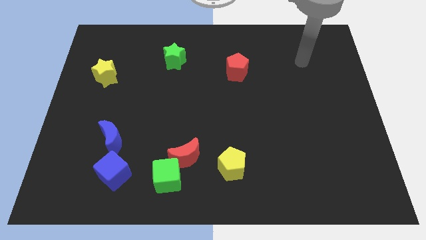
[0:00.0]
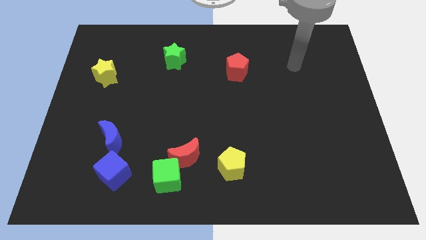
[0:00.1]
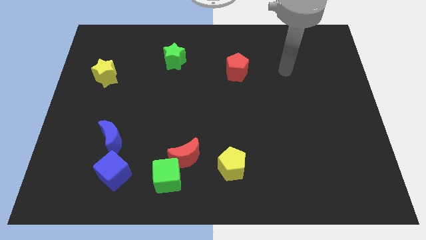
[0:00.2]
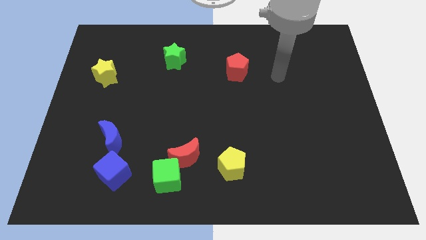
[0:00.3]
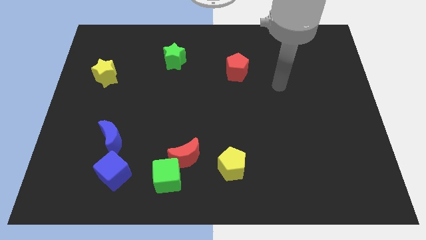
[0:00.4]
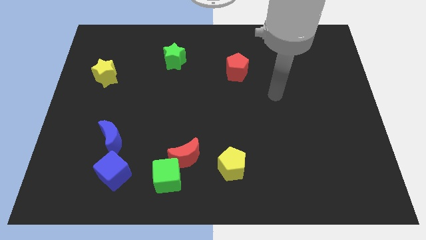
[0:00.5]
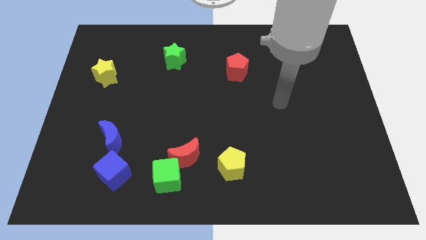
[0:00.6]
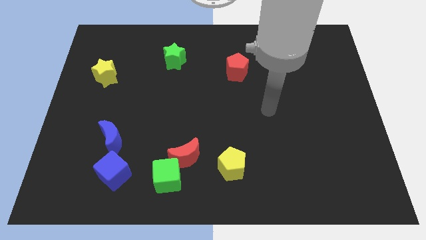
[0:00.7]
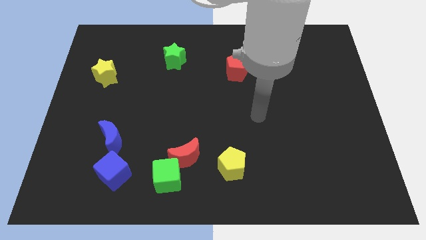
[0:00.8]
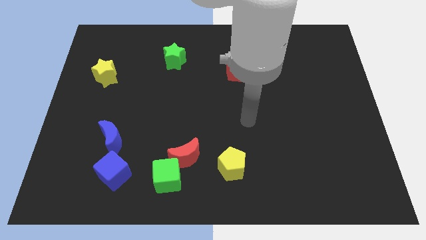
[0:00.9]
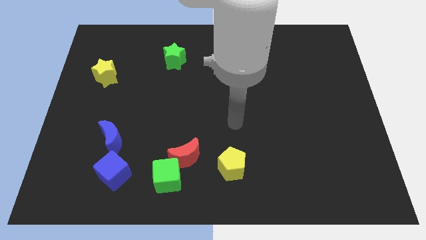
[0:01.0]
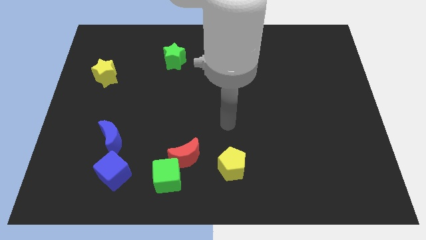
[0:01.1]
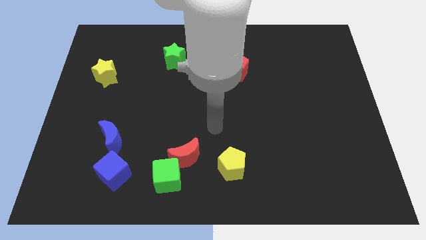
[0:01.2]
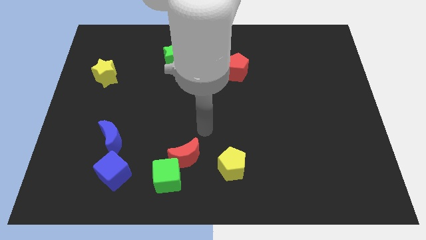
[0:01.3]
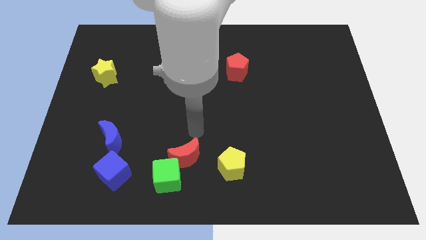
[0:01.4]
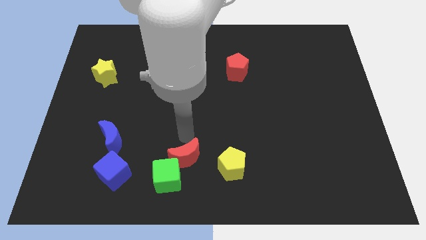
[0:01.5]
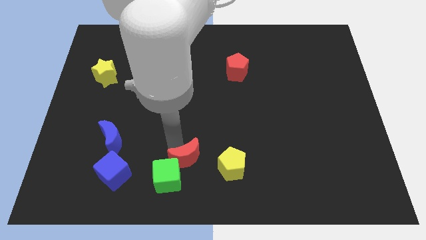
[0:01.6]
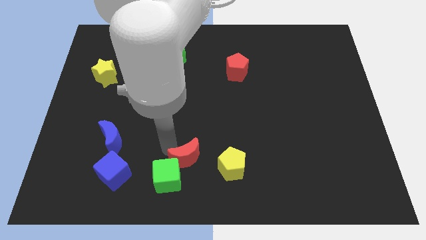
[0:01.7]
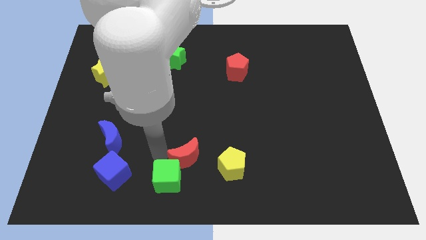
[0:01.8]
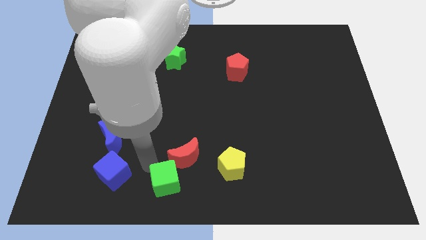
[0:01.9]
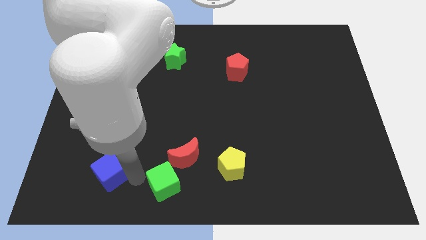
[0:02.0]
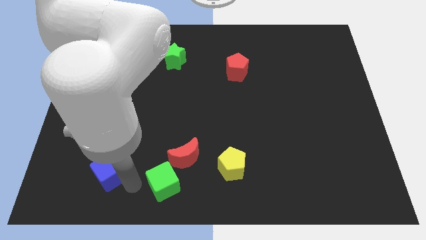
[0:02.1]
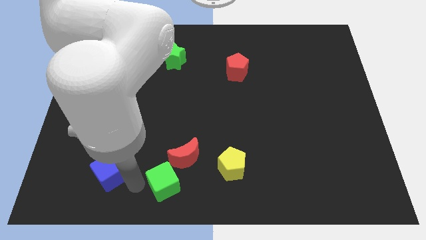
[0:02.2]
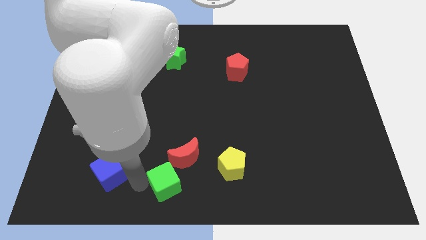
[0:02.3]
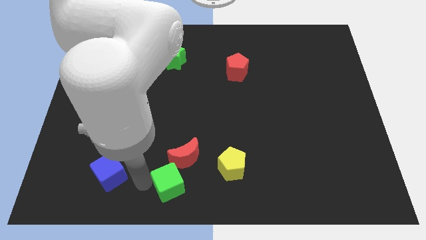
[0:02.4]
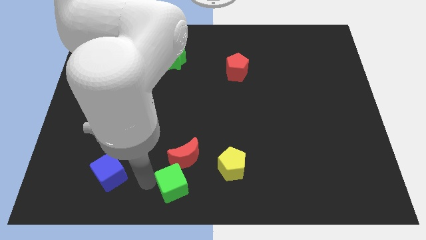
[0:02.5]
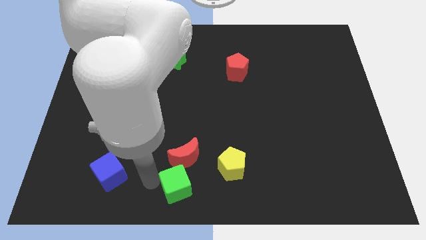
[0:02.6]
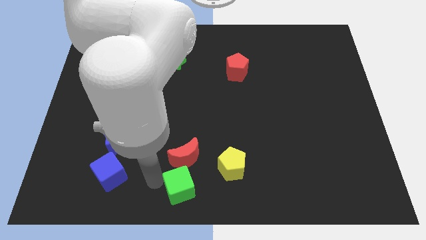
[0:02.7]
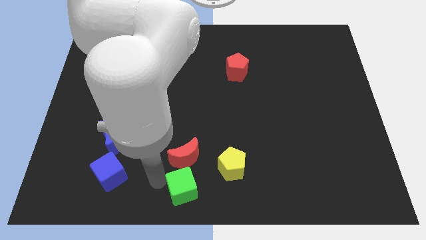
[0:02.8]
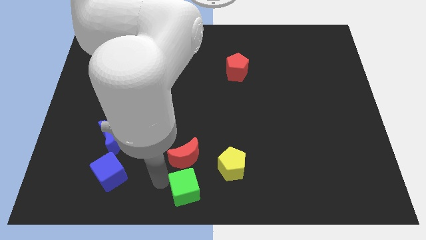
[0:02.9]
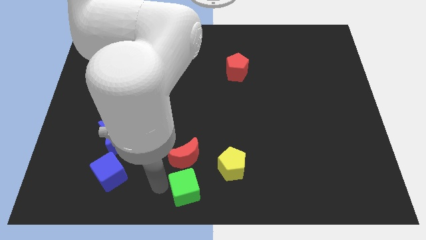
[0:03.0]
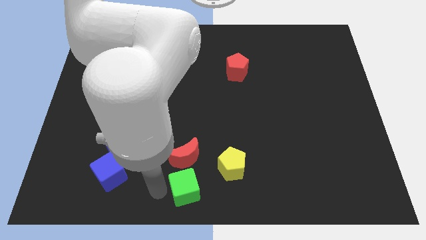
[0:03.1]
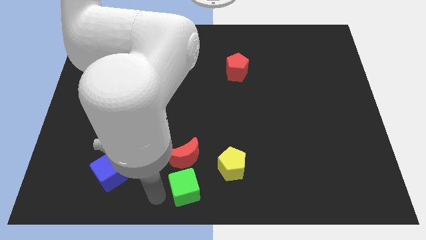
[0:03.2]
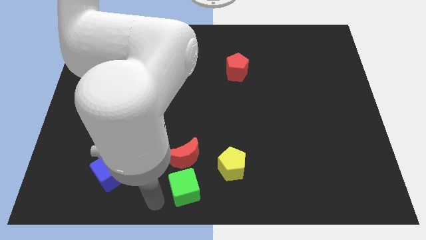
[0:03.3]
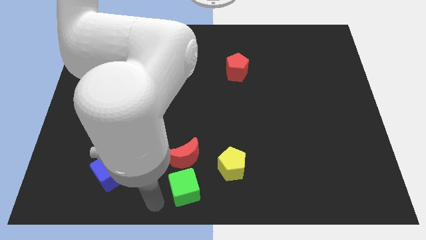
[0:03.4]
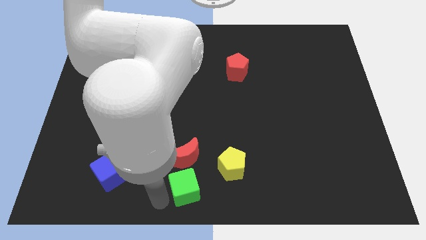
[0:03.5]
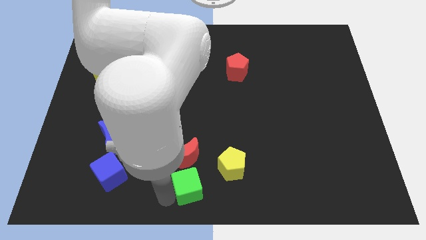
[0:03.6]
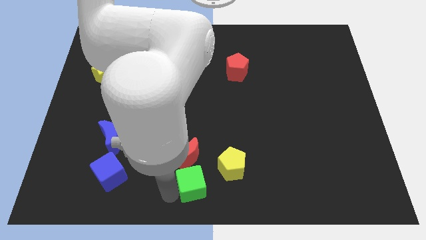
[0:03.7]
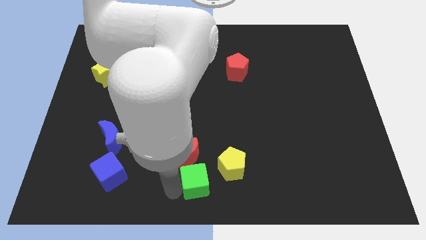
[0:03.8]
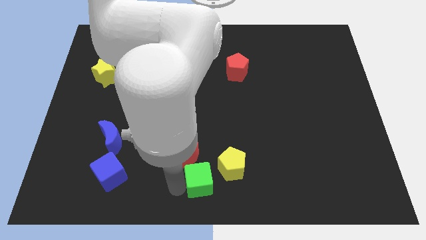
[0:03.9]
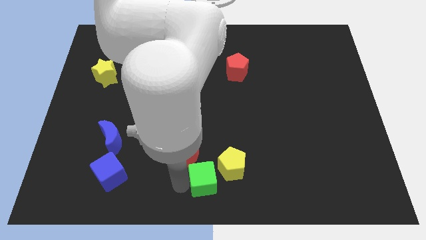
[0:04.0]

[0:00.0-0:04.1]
slightly slide the green cube right

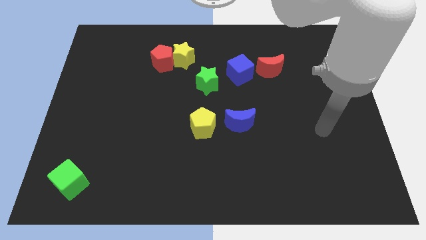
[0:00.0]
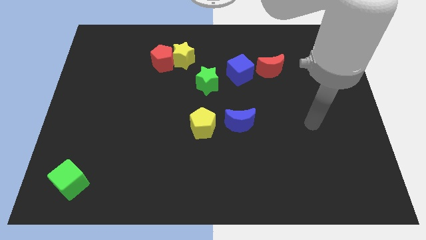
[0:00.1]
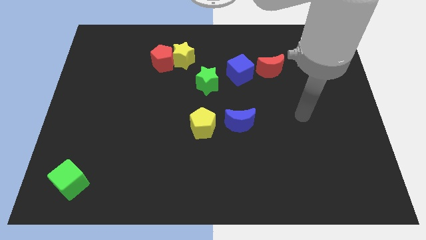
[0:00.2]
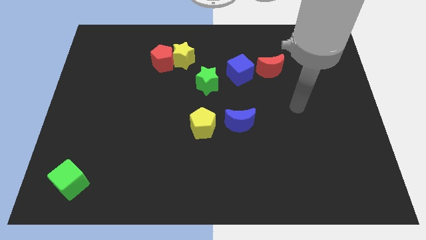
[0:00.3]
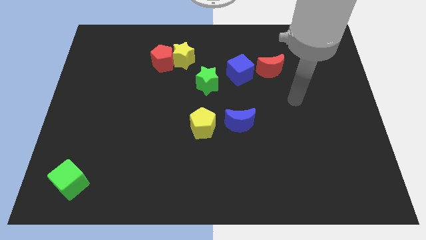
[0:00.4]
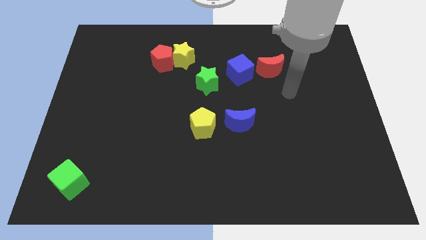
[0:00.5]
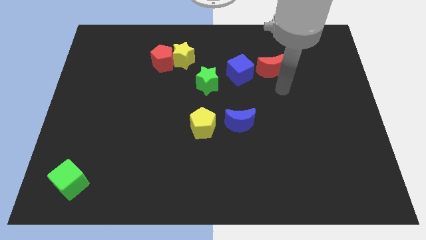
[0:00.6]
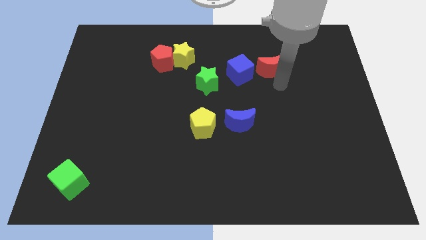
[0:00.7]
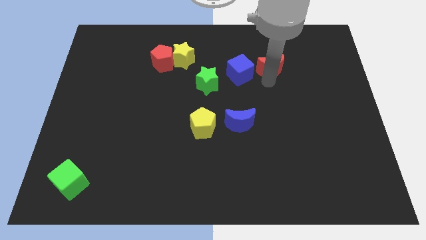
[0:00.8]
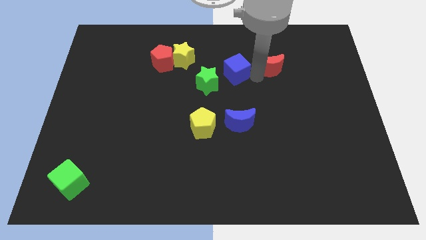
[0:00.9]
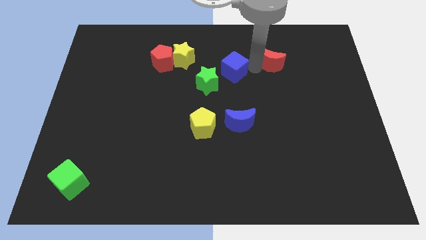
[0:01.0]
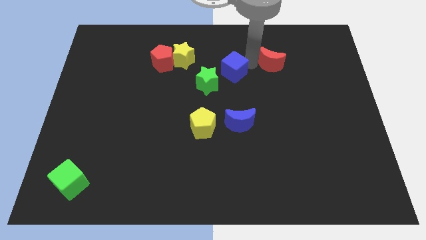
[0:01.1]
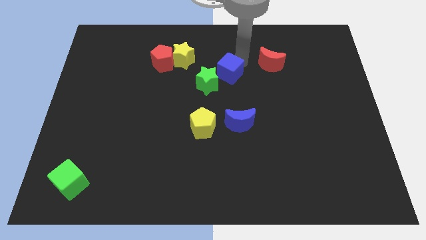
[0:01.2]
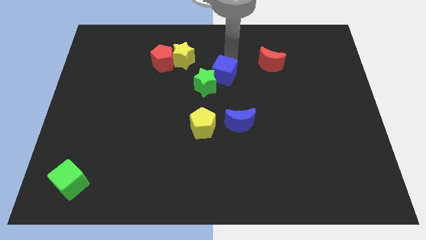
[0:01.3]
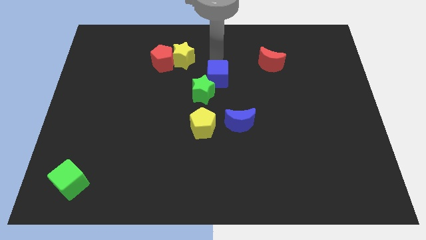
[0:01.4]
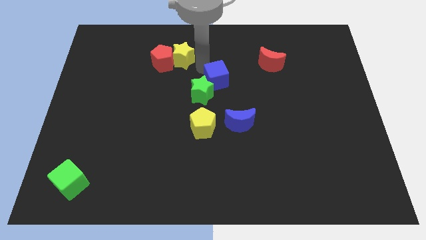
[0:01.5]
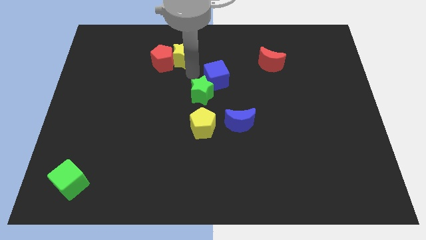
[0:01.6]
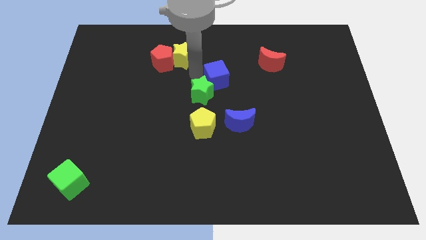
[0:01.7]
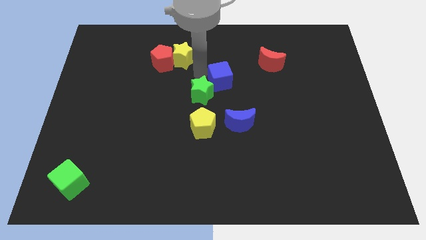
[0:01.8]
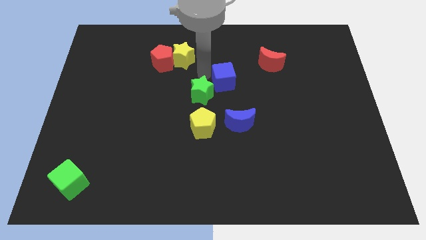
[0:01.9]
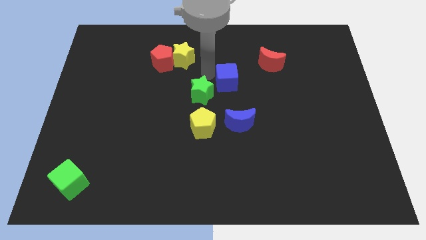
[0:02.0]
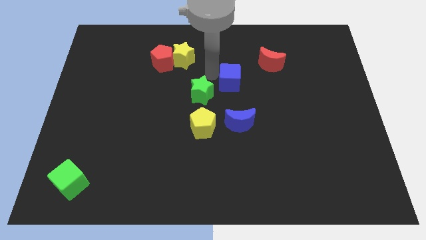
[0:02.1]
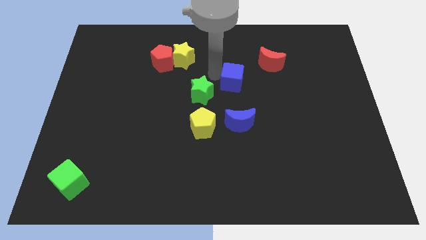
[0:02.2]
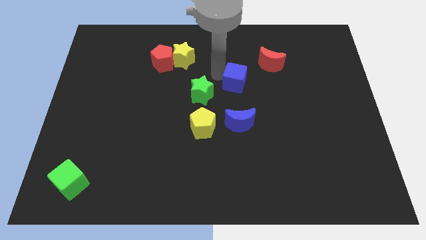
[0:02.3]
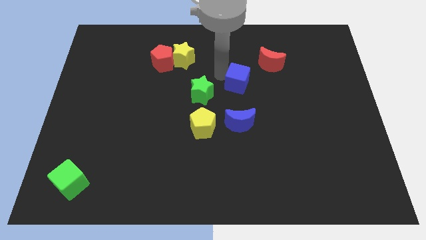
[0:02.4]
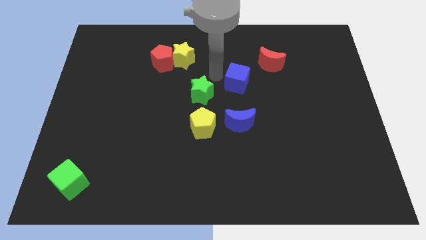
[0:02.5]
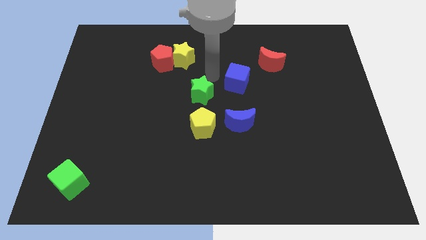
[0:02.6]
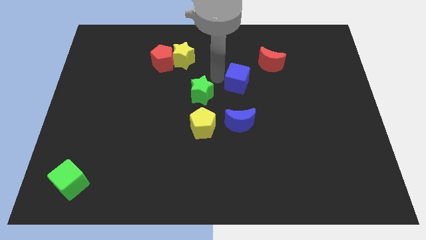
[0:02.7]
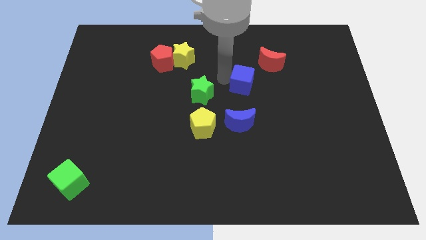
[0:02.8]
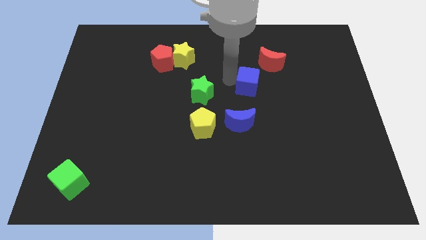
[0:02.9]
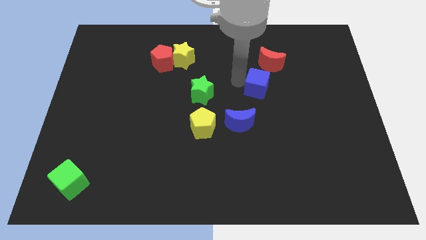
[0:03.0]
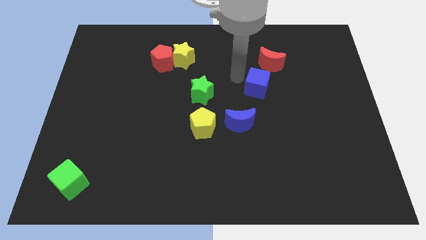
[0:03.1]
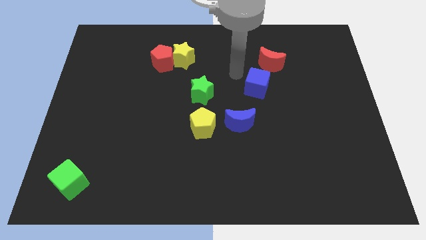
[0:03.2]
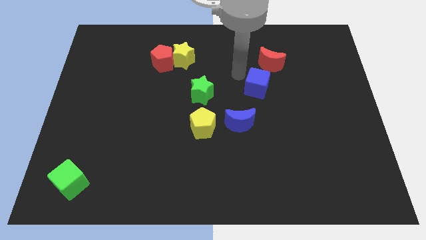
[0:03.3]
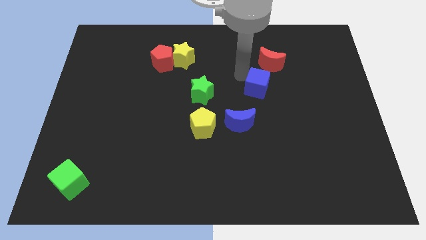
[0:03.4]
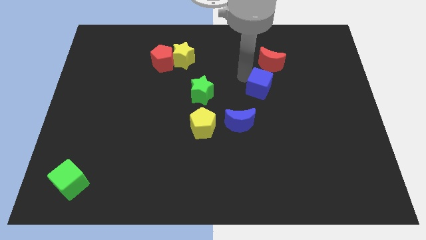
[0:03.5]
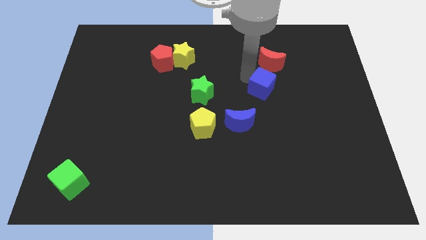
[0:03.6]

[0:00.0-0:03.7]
slide the blue cube a little downwards and to the right

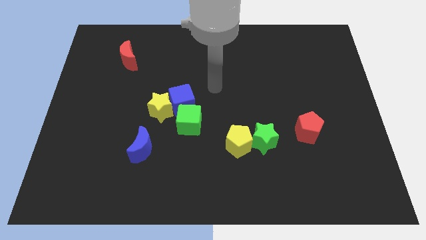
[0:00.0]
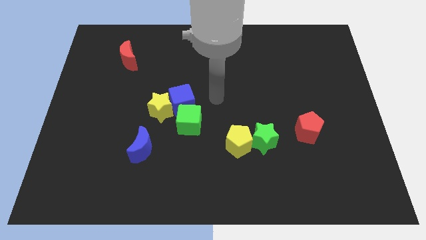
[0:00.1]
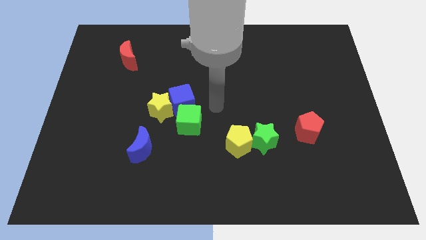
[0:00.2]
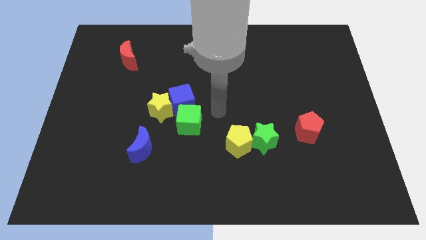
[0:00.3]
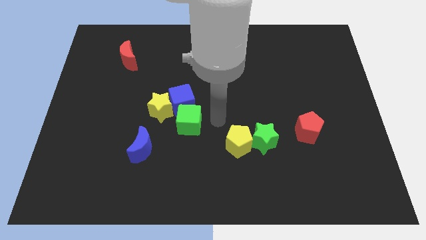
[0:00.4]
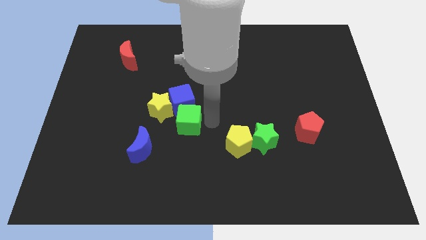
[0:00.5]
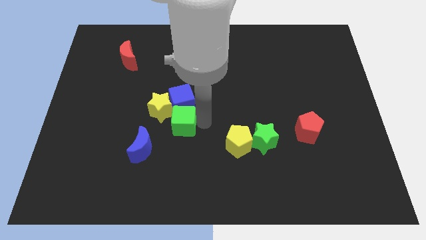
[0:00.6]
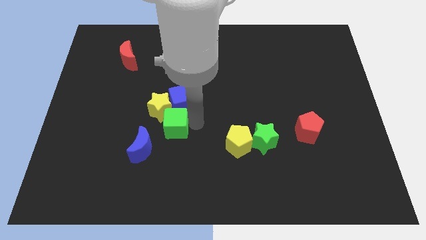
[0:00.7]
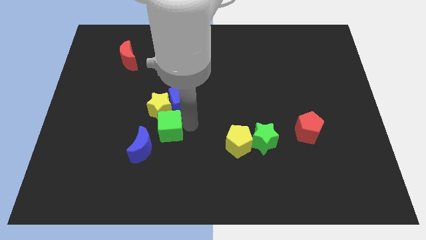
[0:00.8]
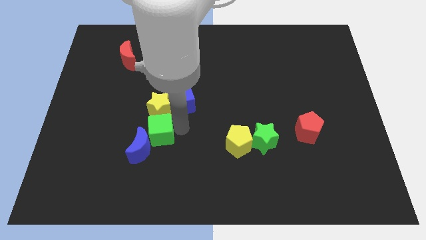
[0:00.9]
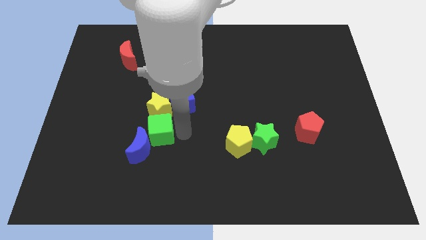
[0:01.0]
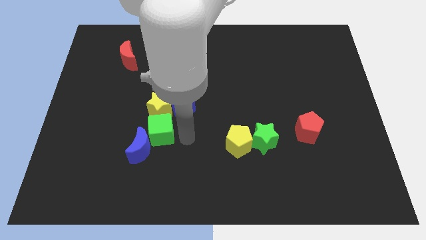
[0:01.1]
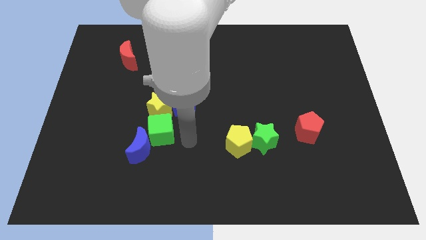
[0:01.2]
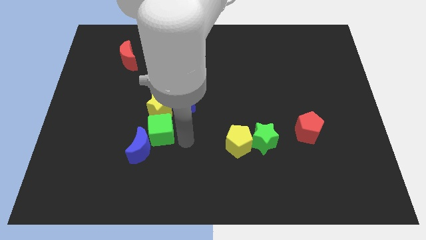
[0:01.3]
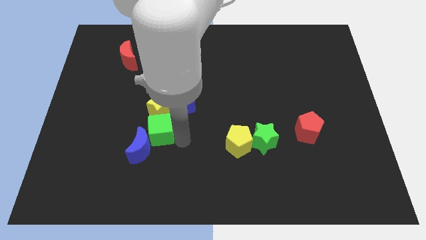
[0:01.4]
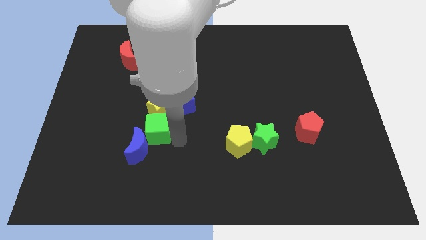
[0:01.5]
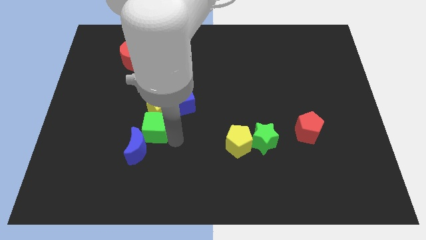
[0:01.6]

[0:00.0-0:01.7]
slide the green cube slightly to the left
